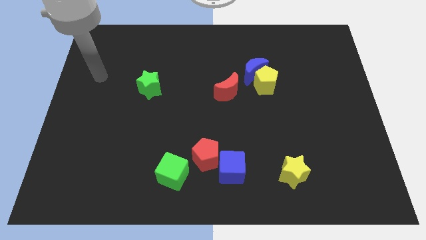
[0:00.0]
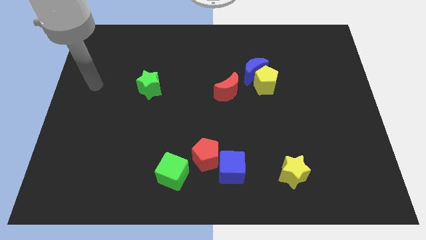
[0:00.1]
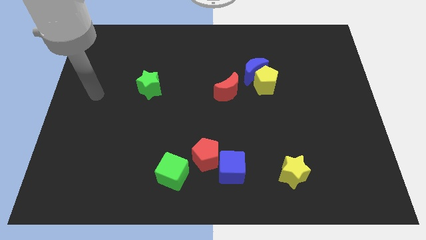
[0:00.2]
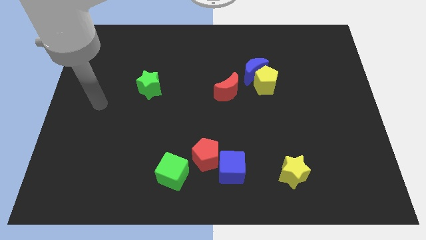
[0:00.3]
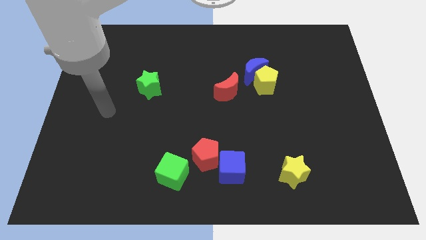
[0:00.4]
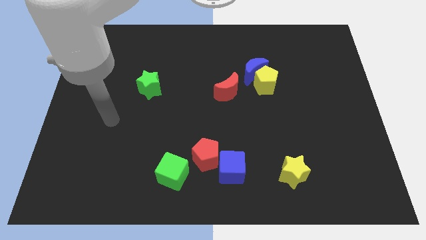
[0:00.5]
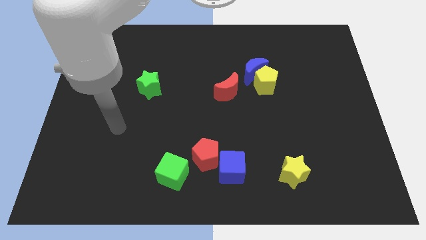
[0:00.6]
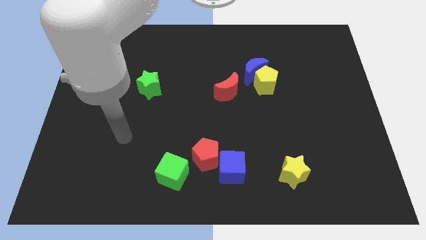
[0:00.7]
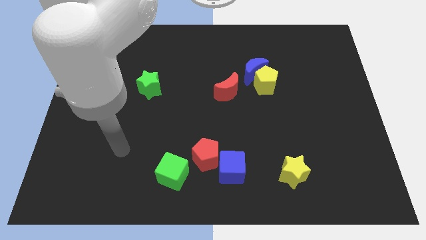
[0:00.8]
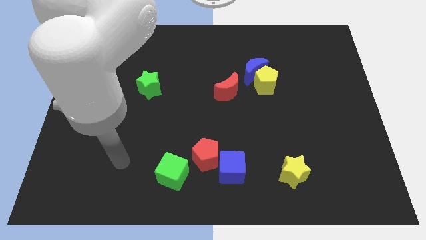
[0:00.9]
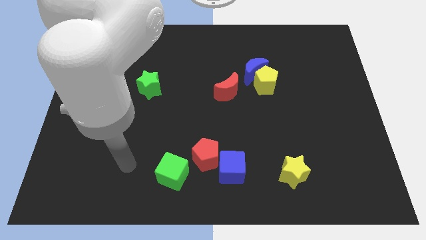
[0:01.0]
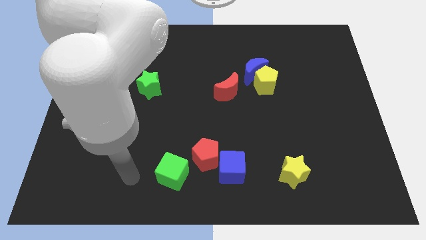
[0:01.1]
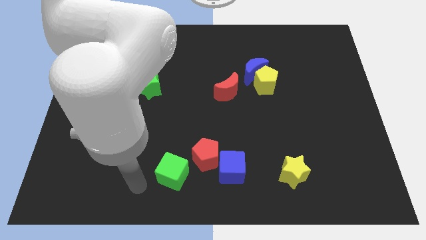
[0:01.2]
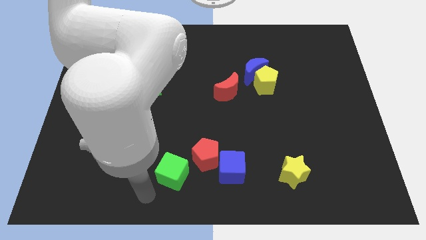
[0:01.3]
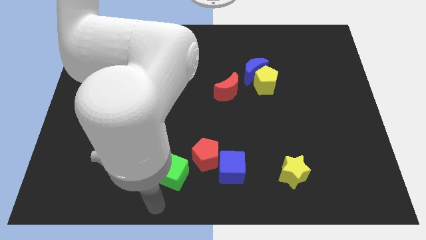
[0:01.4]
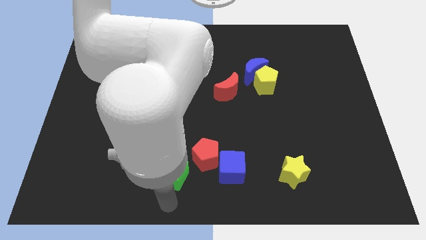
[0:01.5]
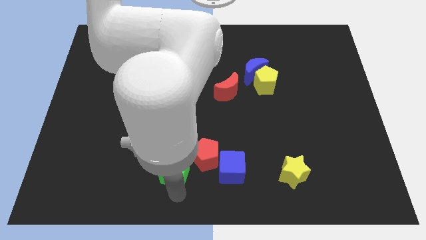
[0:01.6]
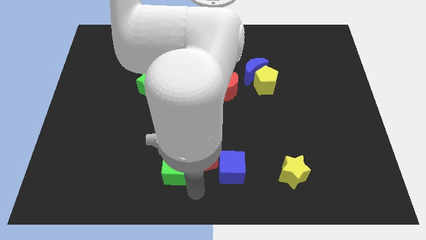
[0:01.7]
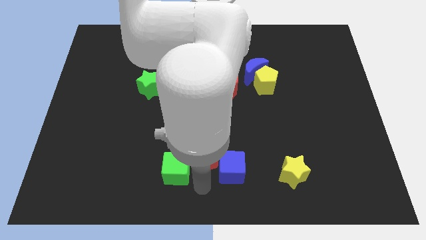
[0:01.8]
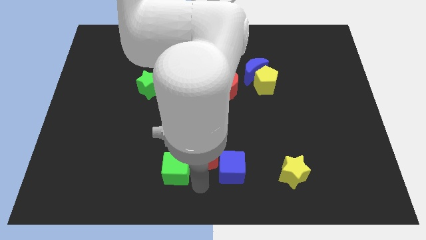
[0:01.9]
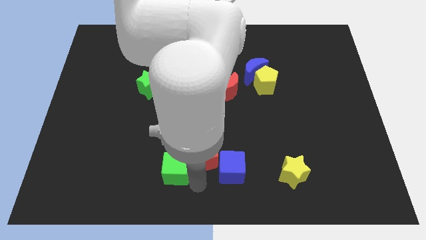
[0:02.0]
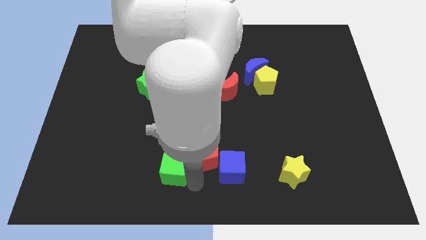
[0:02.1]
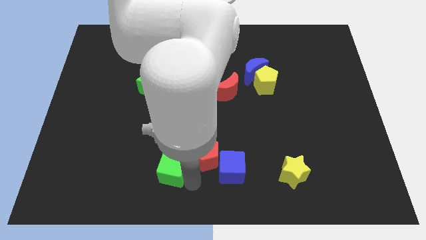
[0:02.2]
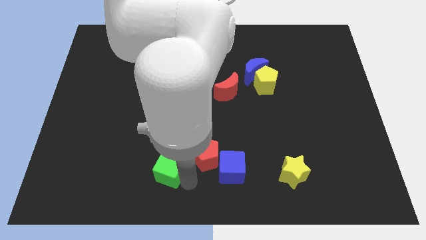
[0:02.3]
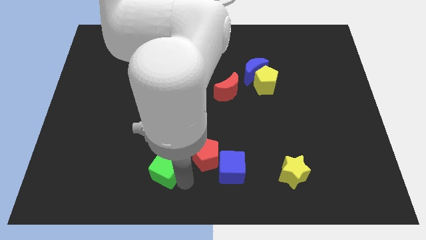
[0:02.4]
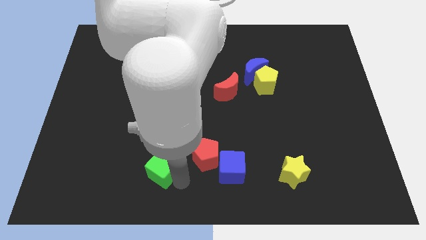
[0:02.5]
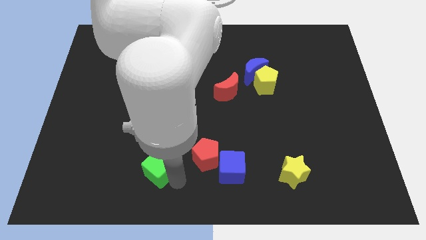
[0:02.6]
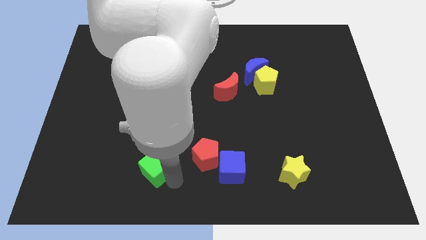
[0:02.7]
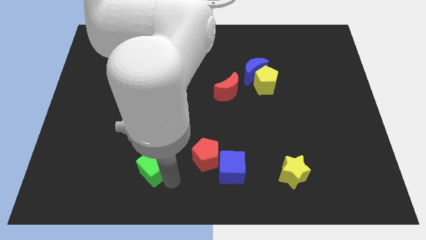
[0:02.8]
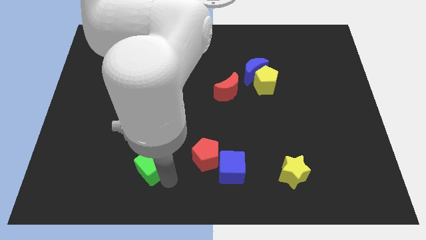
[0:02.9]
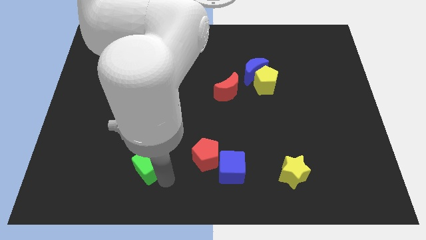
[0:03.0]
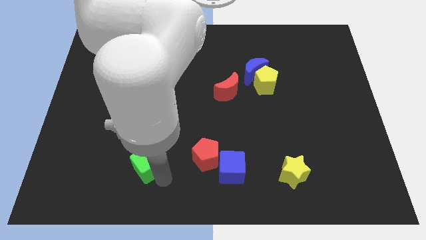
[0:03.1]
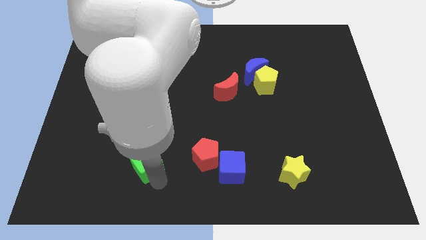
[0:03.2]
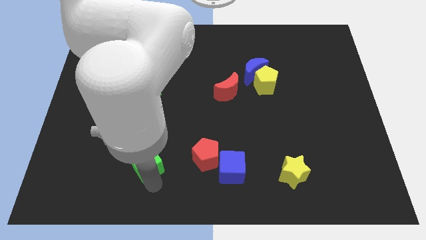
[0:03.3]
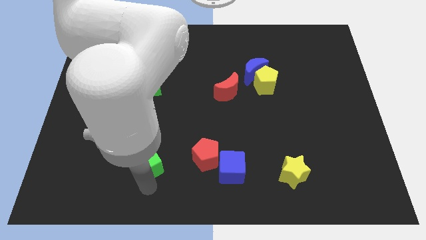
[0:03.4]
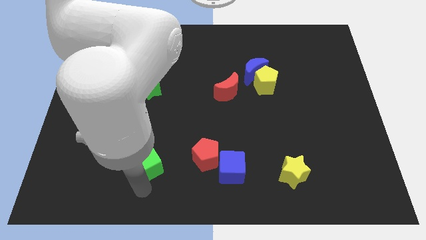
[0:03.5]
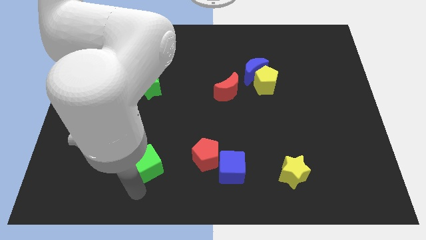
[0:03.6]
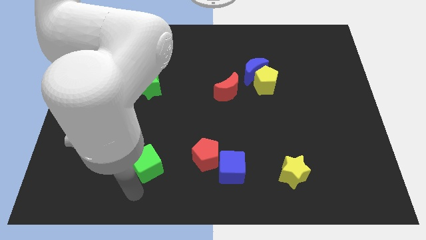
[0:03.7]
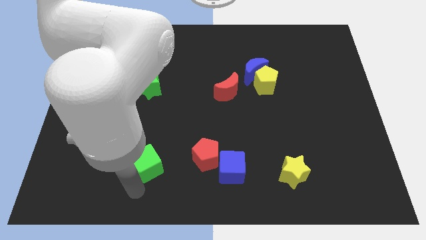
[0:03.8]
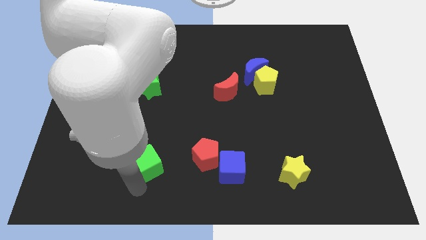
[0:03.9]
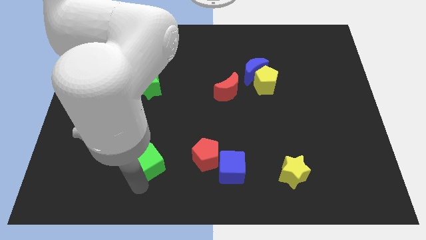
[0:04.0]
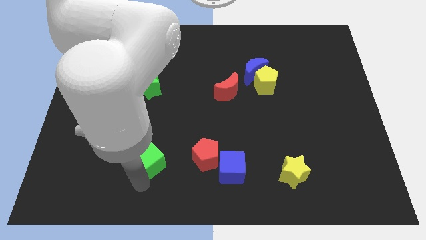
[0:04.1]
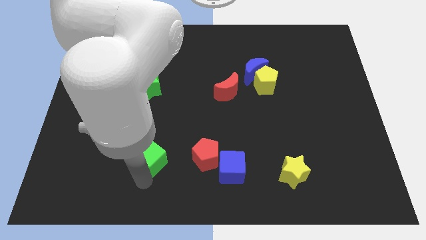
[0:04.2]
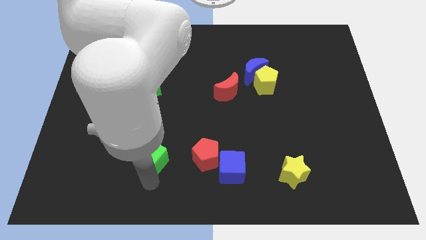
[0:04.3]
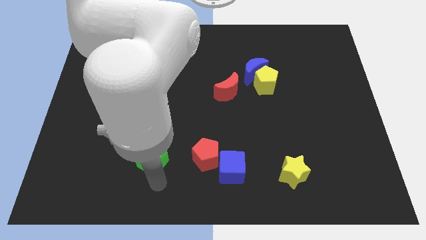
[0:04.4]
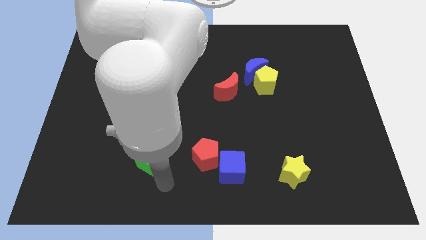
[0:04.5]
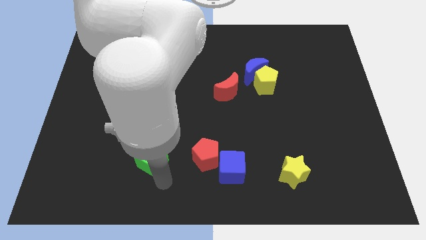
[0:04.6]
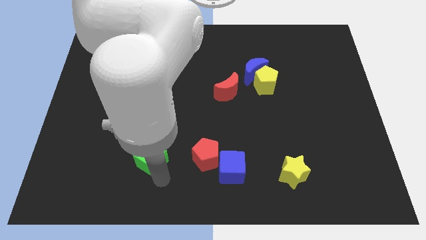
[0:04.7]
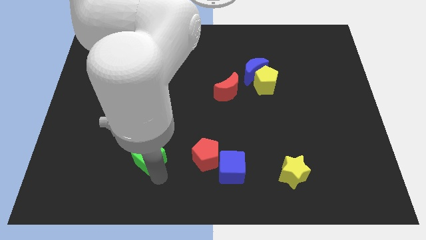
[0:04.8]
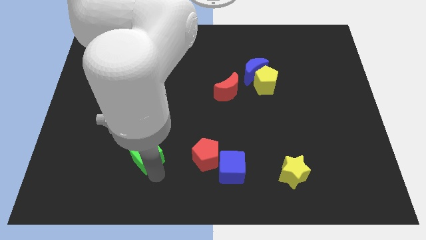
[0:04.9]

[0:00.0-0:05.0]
push the green cube diagonally up and left a bit

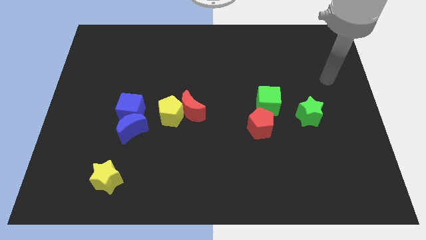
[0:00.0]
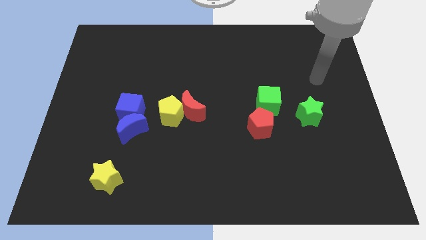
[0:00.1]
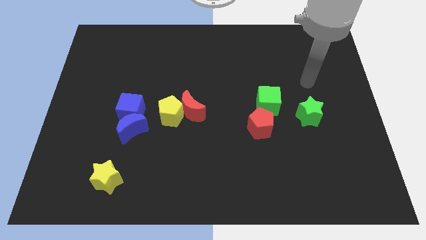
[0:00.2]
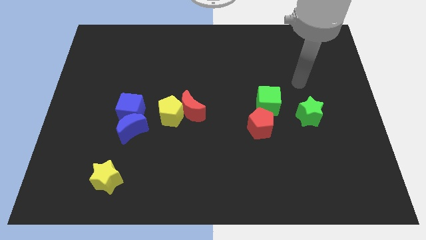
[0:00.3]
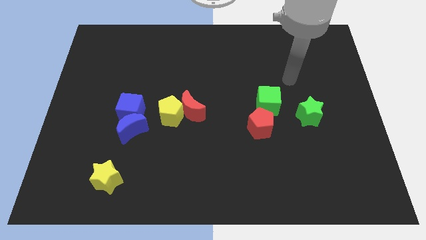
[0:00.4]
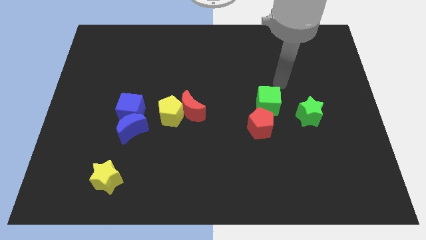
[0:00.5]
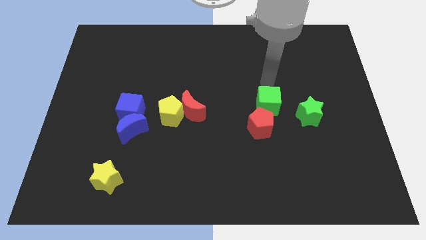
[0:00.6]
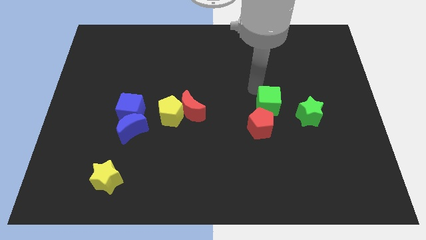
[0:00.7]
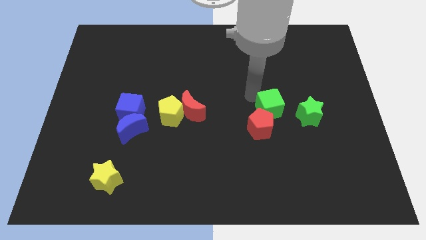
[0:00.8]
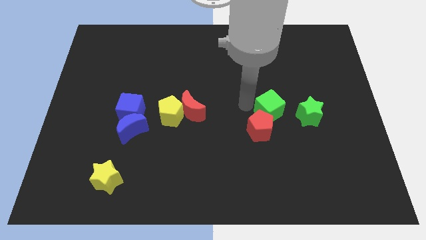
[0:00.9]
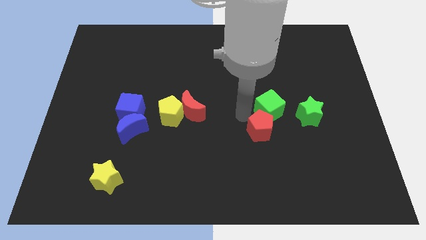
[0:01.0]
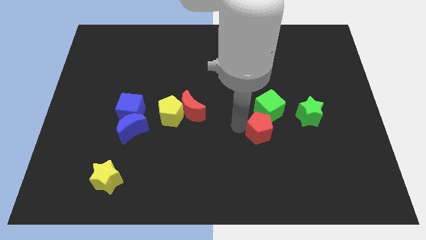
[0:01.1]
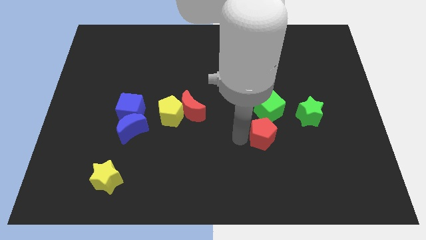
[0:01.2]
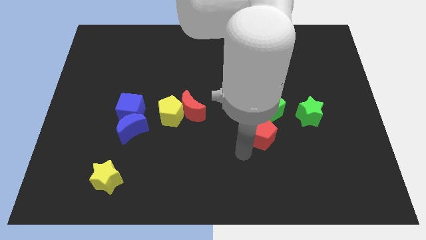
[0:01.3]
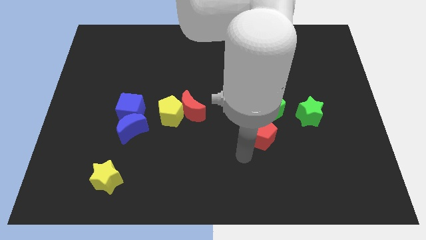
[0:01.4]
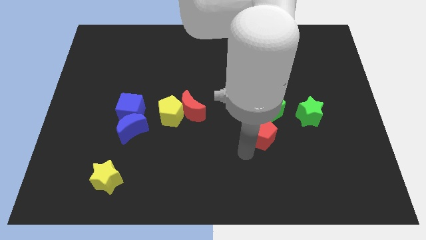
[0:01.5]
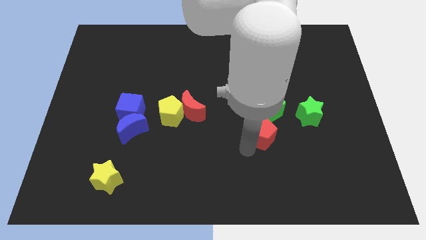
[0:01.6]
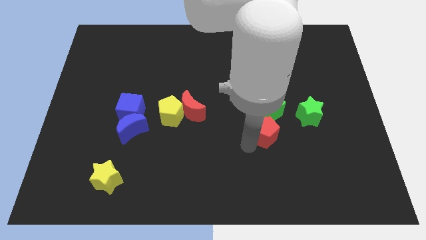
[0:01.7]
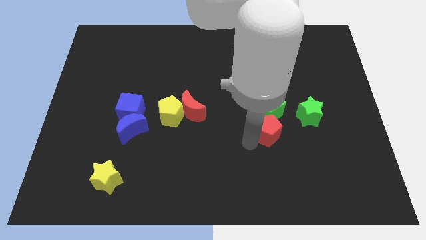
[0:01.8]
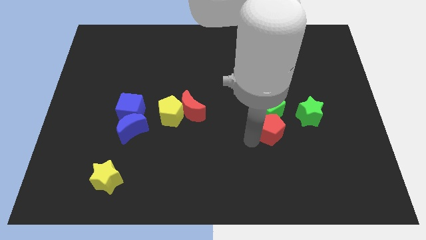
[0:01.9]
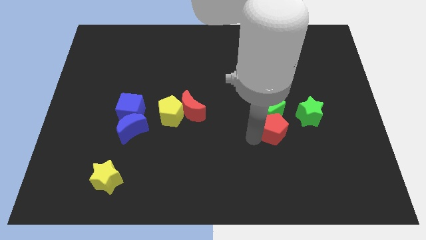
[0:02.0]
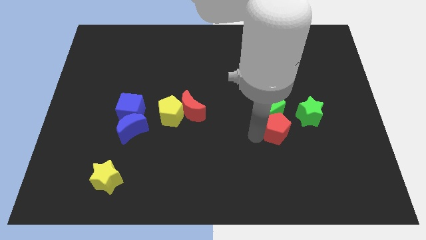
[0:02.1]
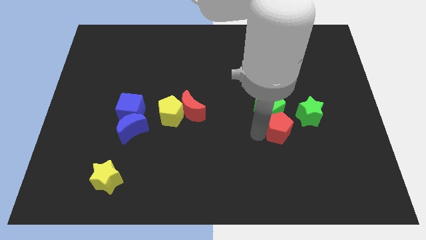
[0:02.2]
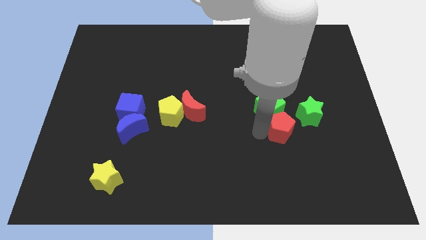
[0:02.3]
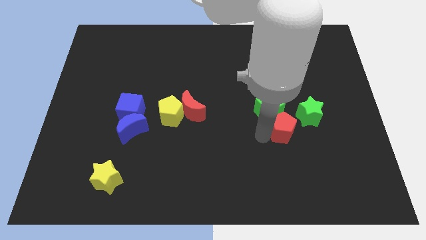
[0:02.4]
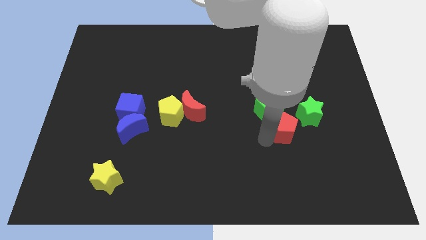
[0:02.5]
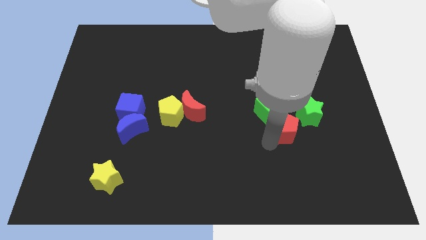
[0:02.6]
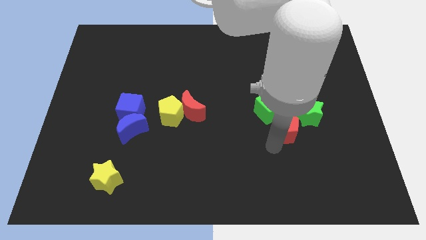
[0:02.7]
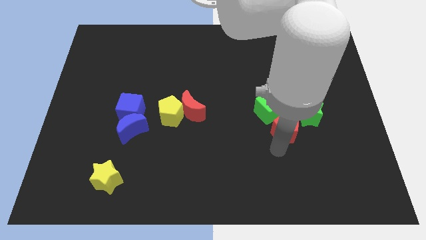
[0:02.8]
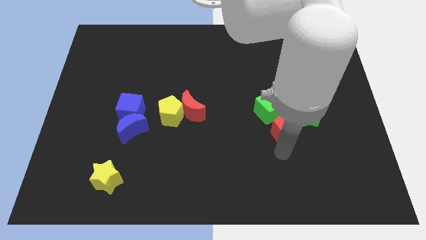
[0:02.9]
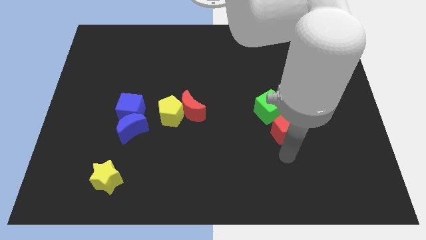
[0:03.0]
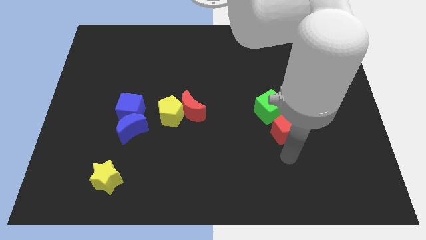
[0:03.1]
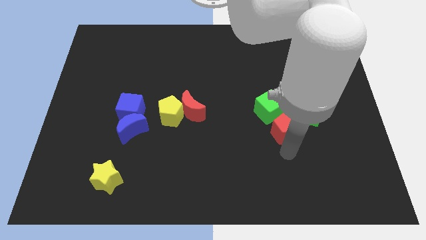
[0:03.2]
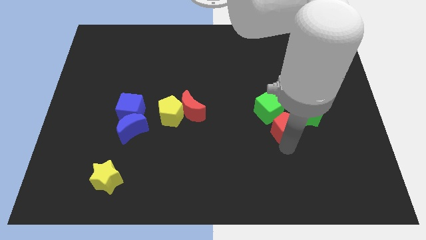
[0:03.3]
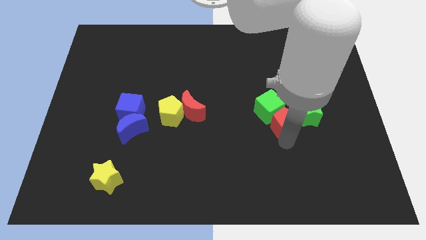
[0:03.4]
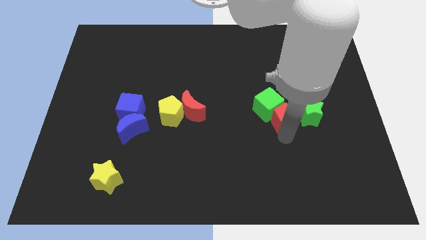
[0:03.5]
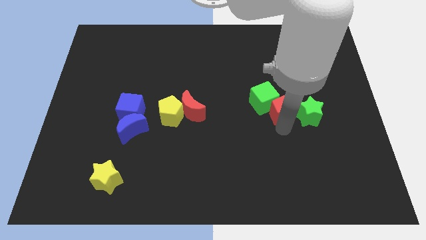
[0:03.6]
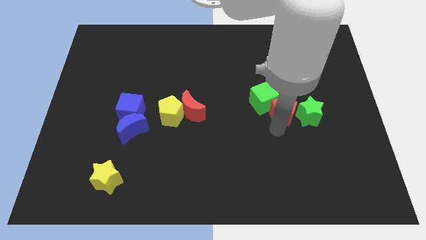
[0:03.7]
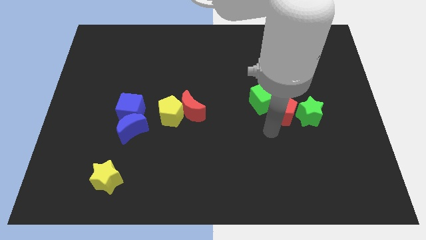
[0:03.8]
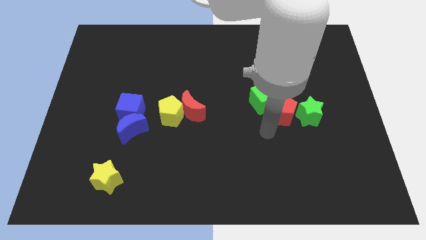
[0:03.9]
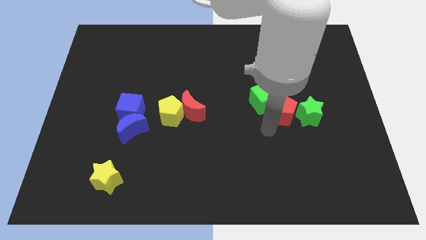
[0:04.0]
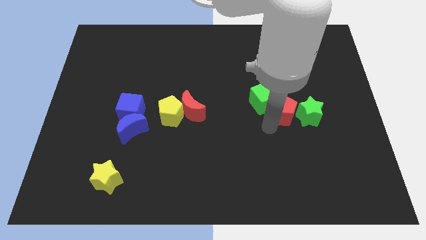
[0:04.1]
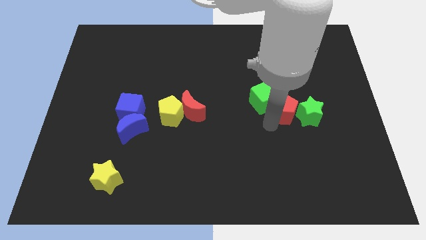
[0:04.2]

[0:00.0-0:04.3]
move the red pentagon upwards and then to the right slightly
